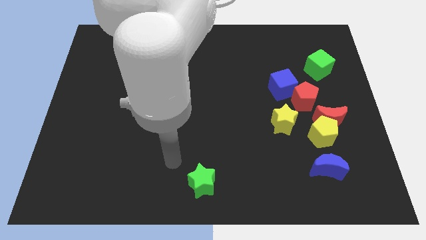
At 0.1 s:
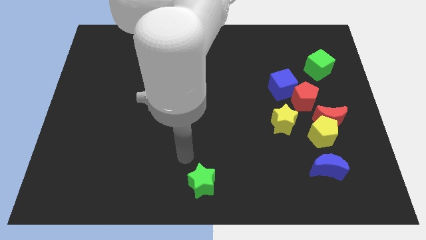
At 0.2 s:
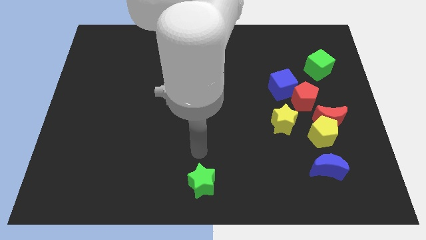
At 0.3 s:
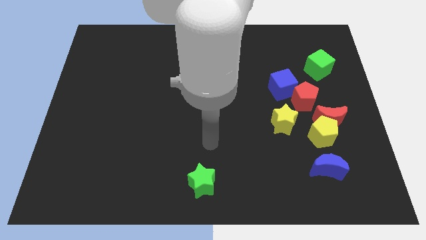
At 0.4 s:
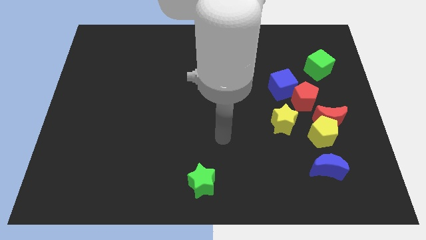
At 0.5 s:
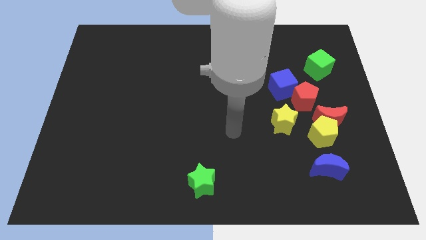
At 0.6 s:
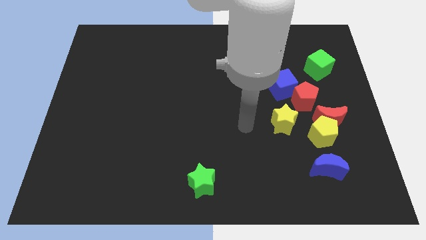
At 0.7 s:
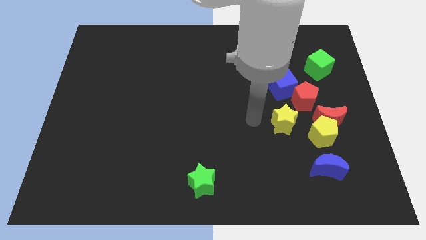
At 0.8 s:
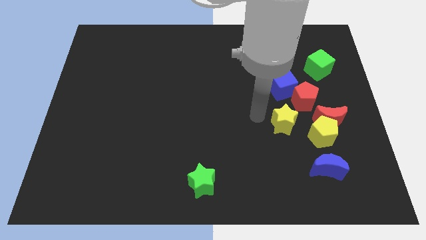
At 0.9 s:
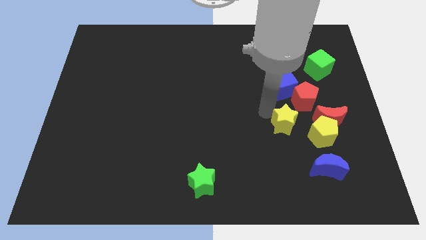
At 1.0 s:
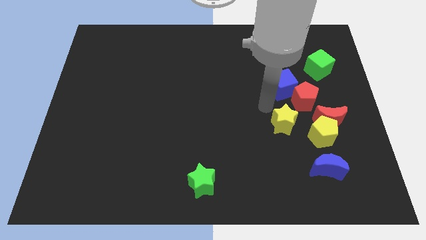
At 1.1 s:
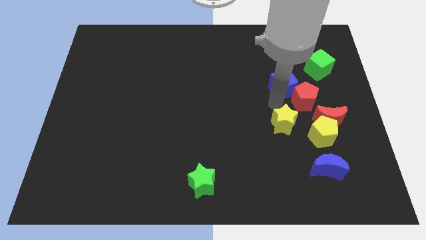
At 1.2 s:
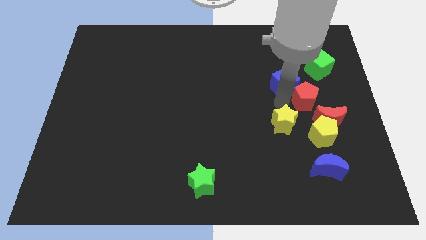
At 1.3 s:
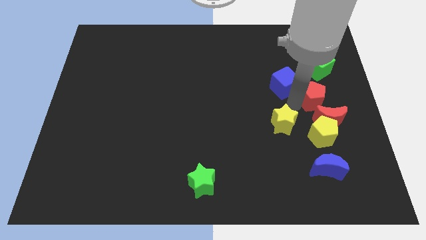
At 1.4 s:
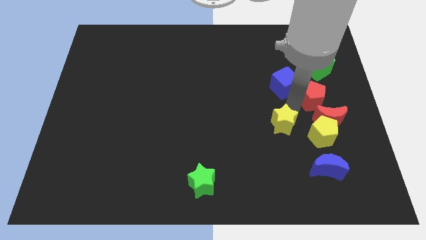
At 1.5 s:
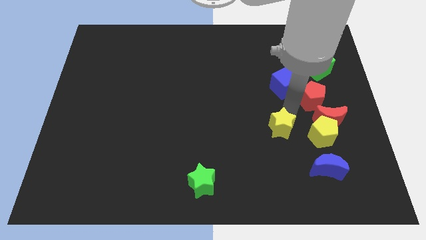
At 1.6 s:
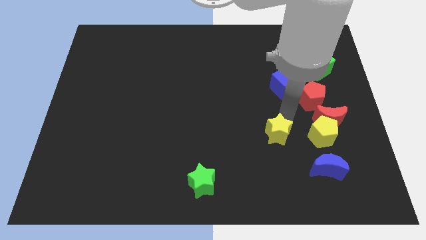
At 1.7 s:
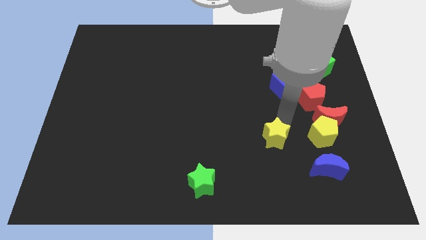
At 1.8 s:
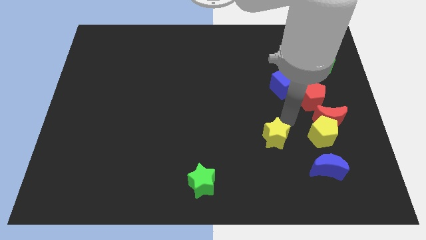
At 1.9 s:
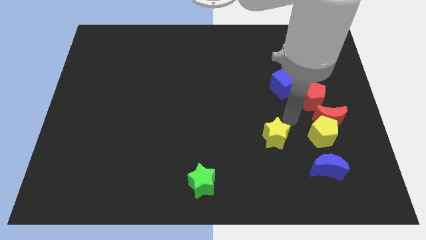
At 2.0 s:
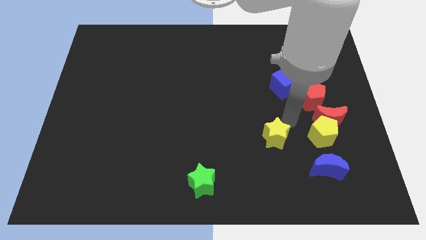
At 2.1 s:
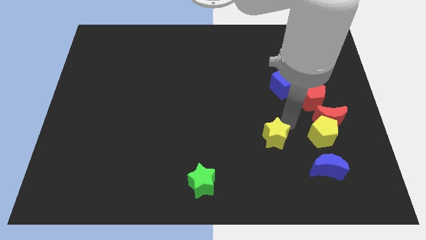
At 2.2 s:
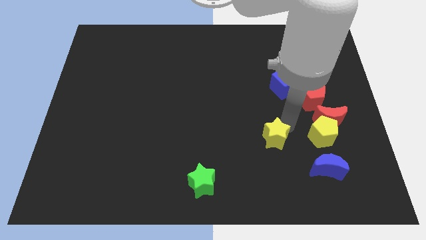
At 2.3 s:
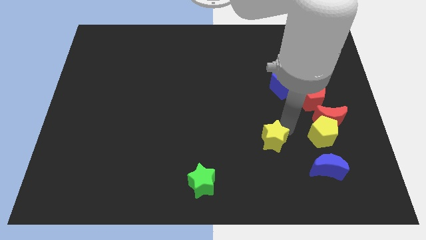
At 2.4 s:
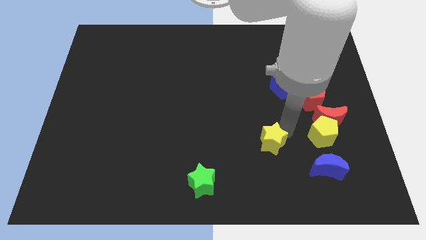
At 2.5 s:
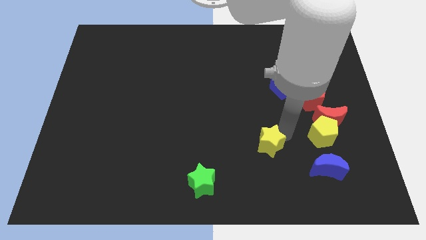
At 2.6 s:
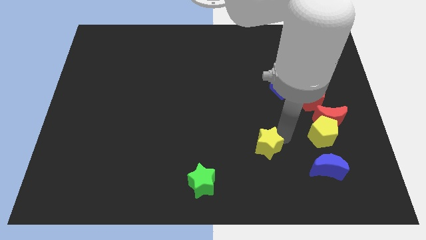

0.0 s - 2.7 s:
slightly push the yellow star diagonally downwards and left

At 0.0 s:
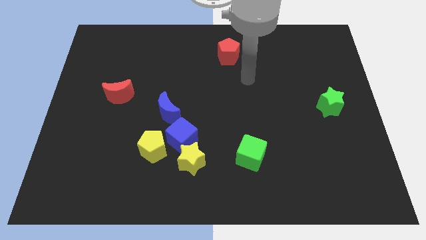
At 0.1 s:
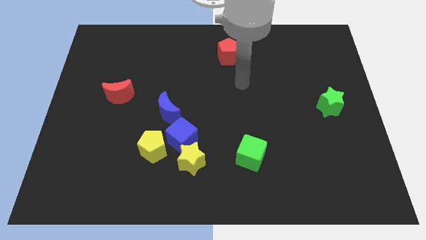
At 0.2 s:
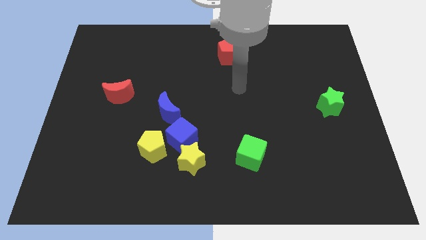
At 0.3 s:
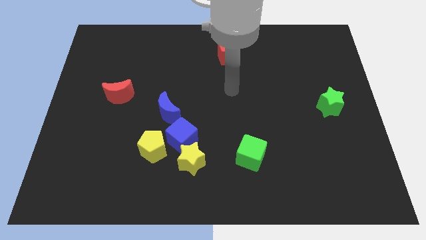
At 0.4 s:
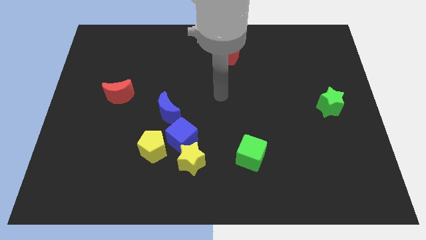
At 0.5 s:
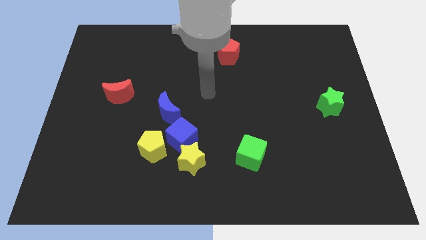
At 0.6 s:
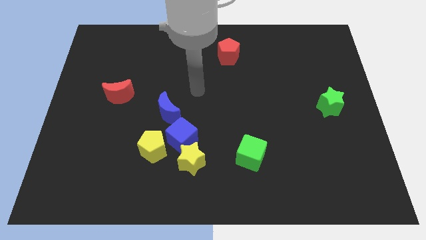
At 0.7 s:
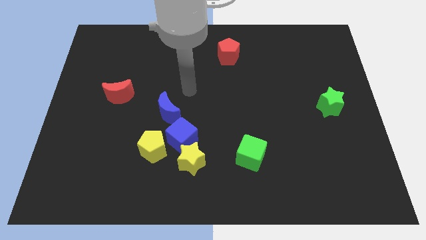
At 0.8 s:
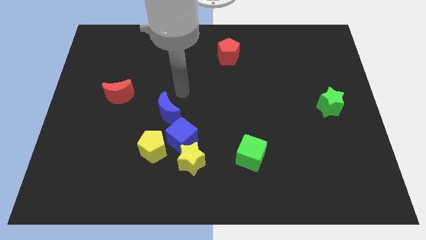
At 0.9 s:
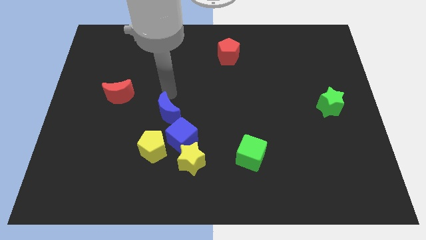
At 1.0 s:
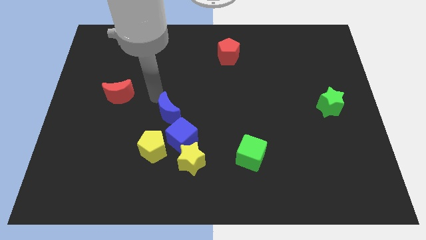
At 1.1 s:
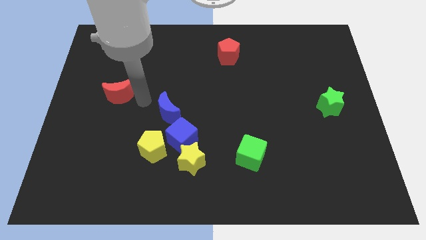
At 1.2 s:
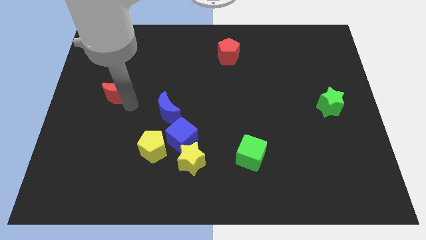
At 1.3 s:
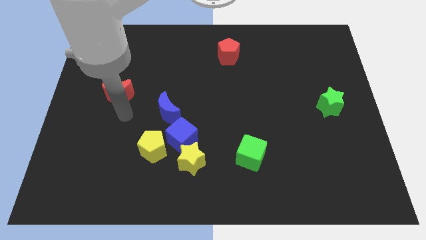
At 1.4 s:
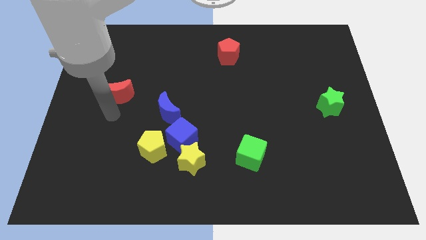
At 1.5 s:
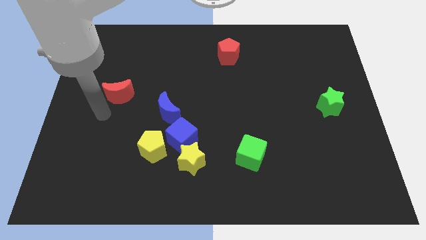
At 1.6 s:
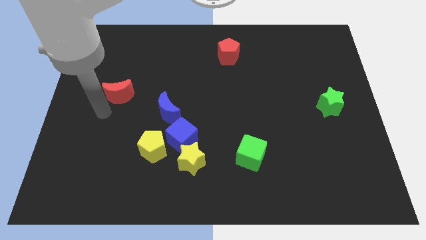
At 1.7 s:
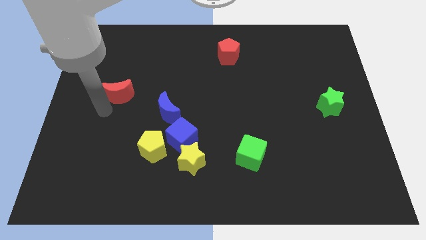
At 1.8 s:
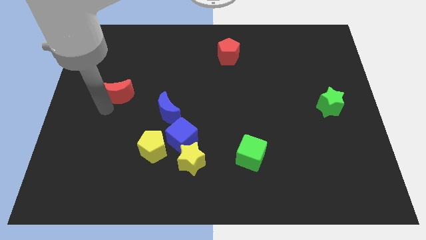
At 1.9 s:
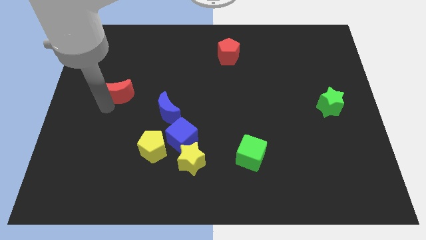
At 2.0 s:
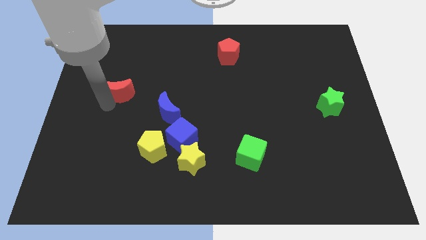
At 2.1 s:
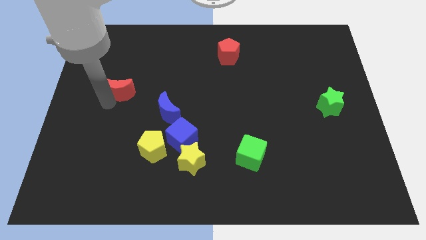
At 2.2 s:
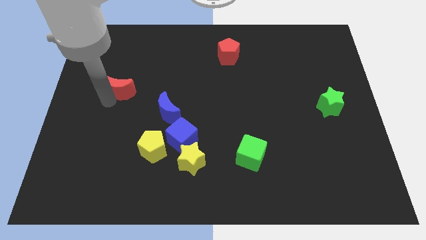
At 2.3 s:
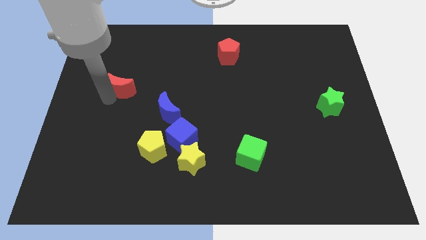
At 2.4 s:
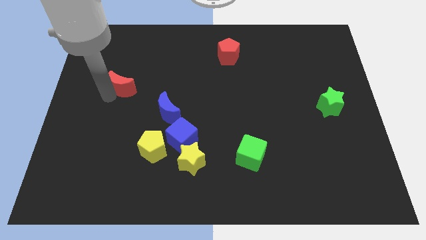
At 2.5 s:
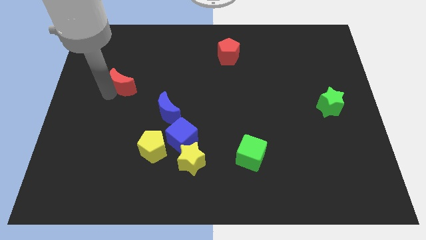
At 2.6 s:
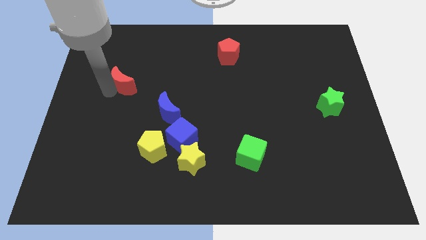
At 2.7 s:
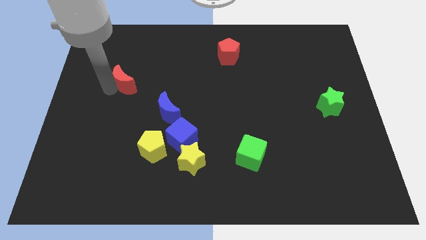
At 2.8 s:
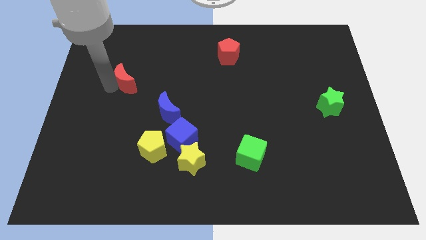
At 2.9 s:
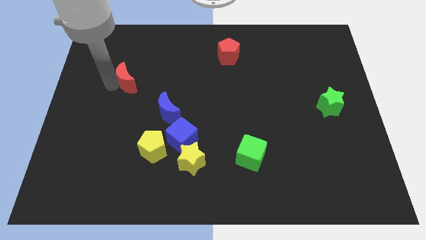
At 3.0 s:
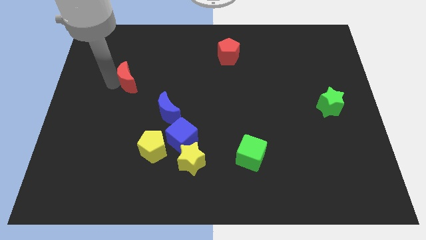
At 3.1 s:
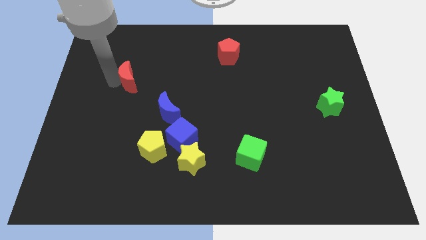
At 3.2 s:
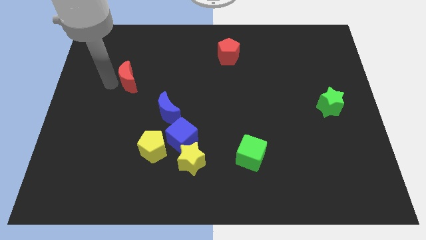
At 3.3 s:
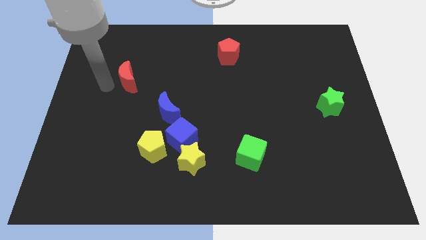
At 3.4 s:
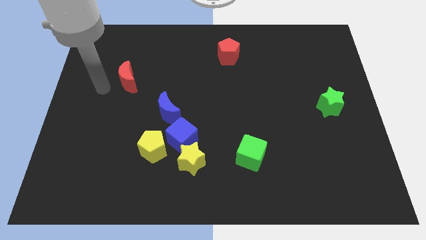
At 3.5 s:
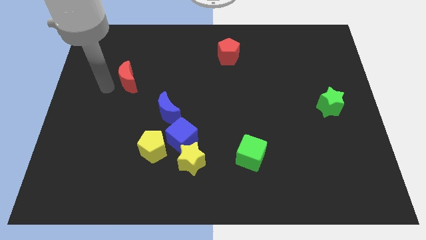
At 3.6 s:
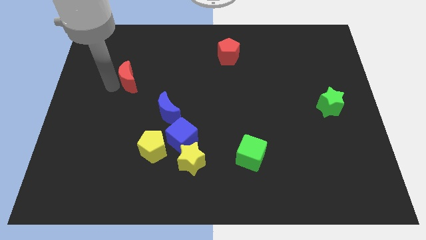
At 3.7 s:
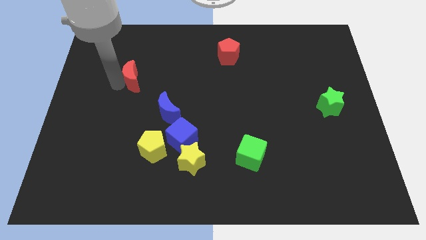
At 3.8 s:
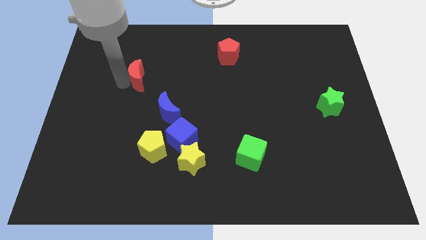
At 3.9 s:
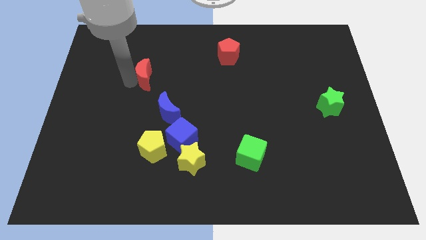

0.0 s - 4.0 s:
push the red moon diagonally up and right somewhat

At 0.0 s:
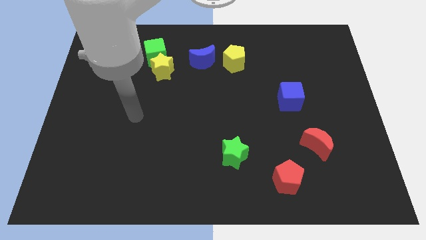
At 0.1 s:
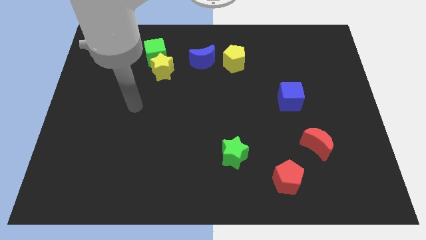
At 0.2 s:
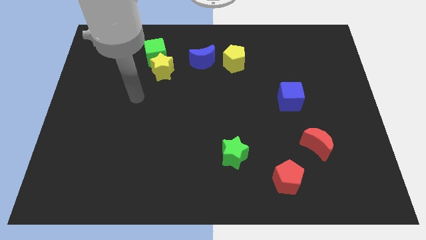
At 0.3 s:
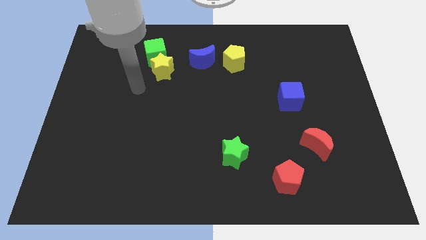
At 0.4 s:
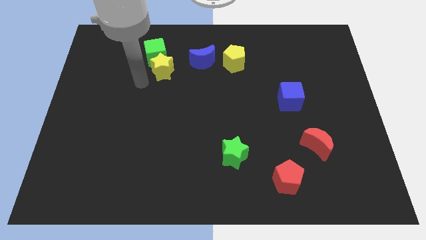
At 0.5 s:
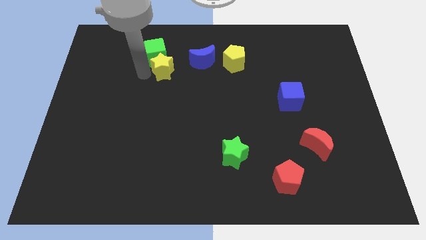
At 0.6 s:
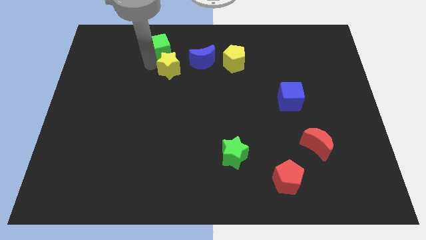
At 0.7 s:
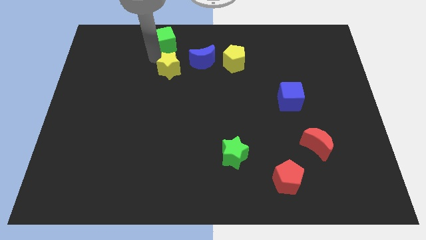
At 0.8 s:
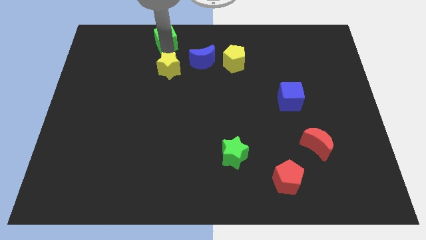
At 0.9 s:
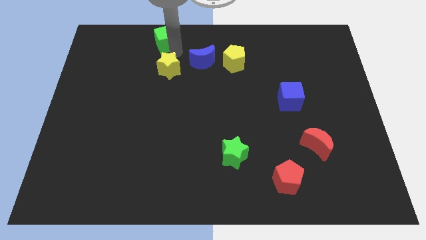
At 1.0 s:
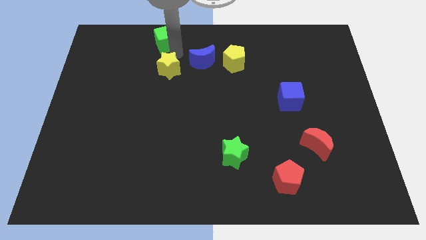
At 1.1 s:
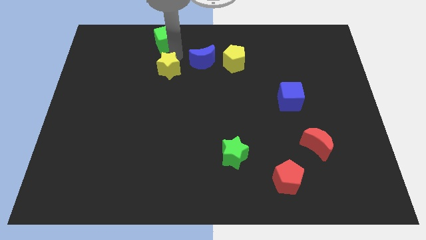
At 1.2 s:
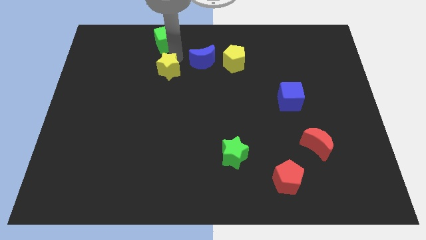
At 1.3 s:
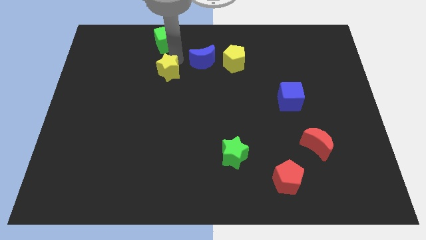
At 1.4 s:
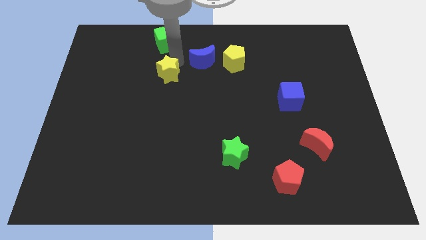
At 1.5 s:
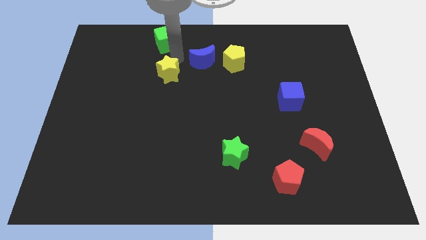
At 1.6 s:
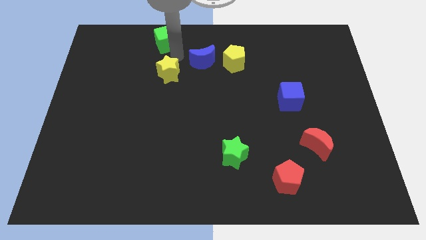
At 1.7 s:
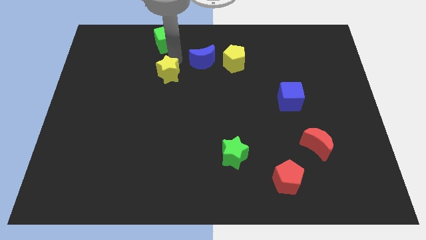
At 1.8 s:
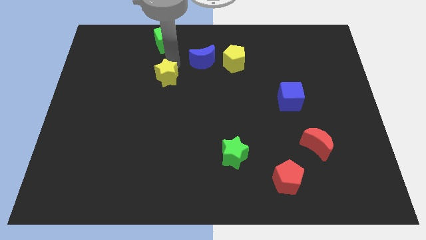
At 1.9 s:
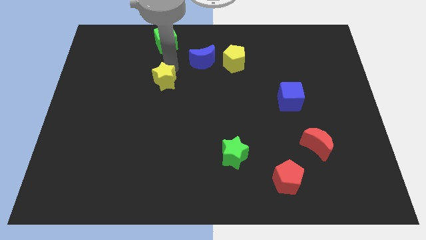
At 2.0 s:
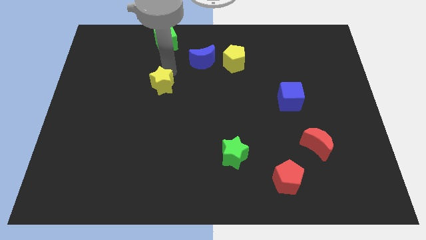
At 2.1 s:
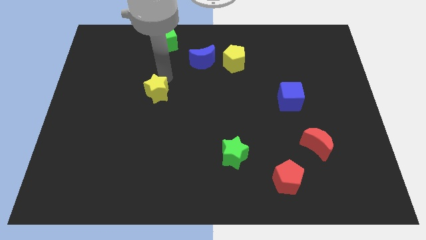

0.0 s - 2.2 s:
slide the yellow star somewhat downwards
